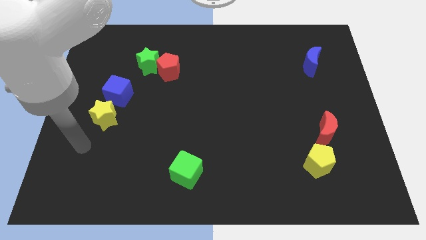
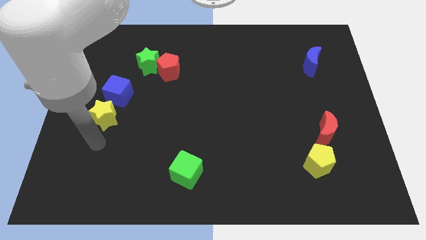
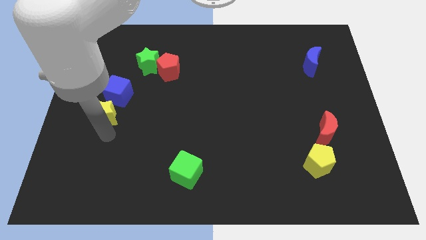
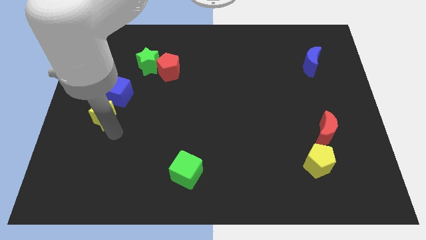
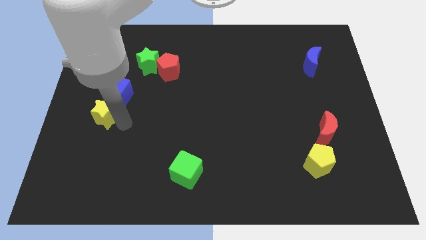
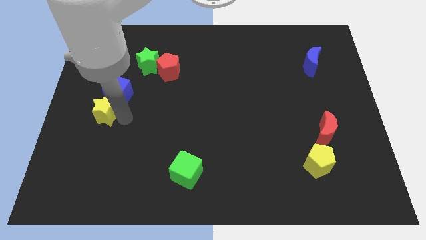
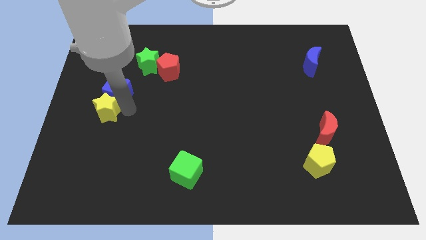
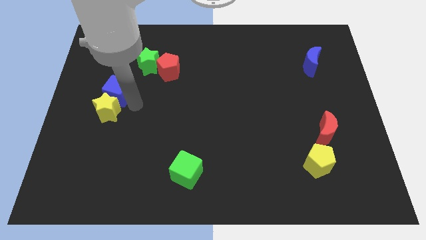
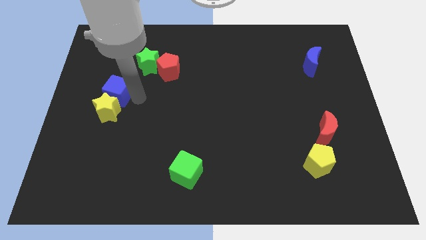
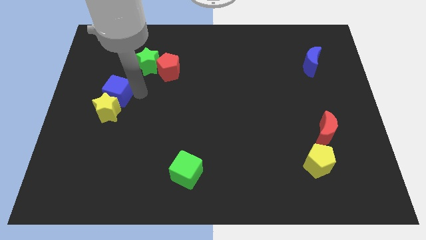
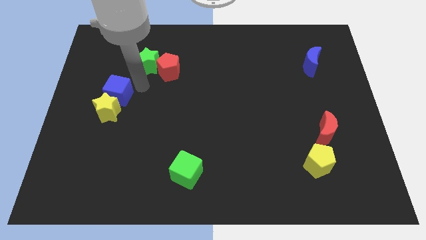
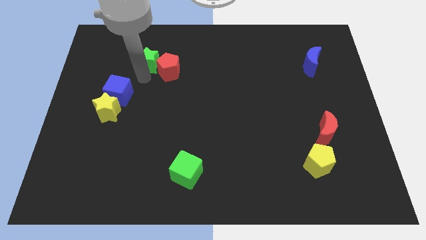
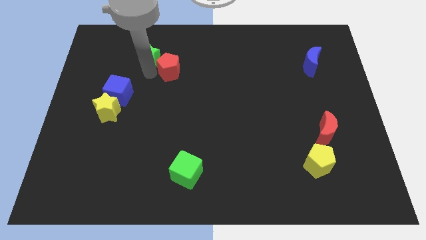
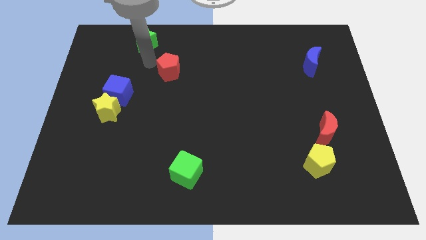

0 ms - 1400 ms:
move the red pentagon away from the green star

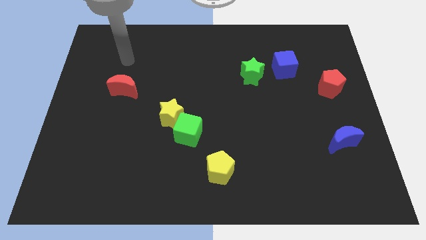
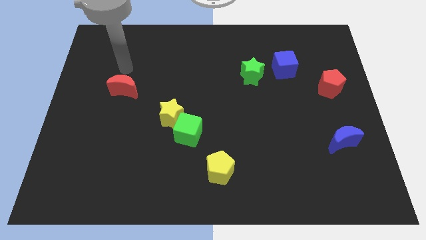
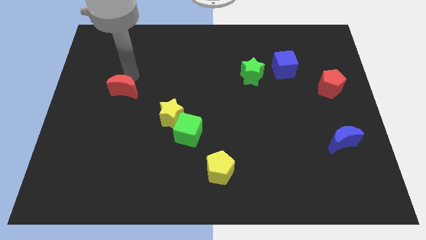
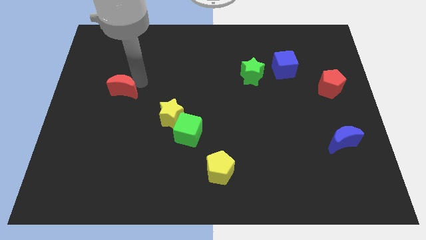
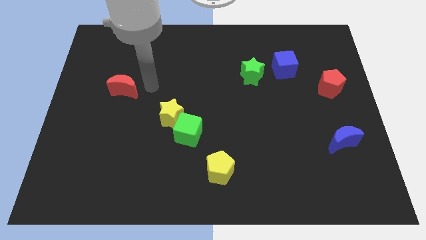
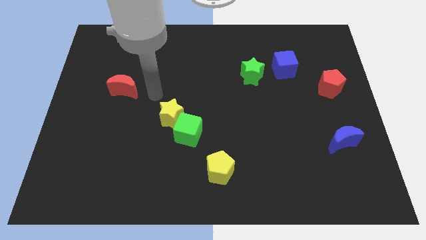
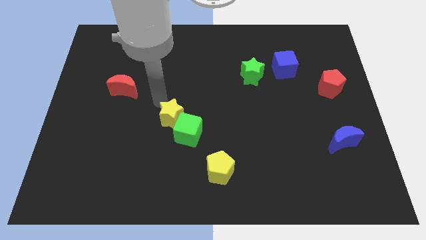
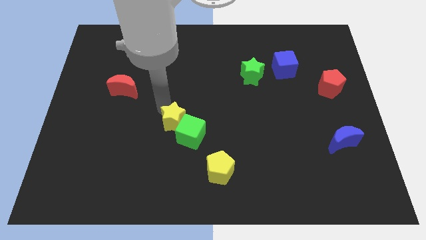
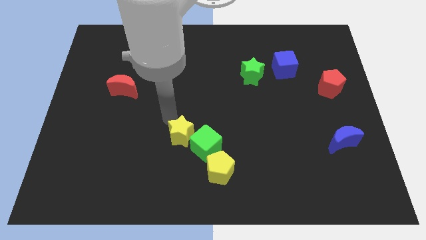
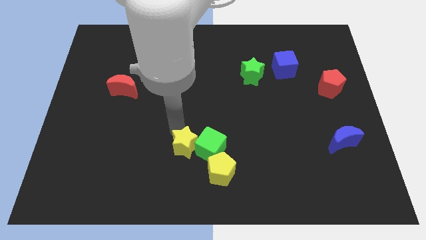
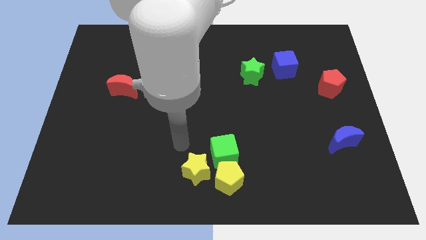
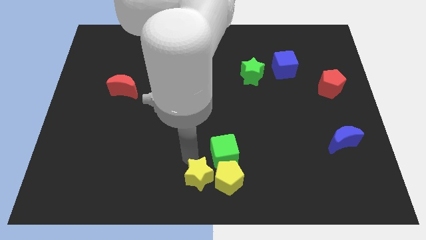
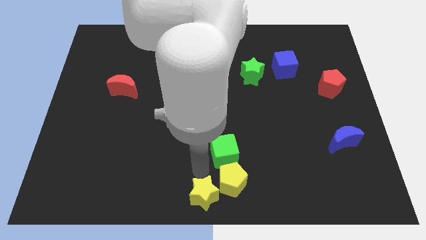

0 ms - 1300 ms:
move the green cube away from the yellow star

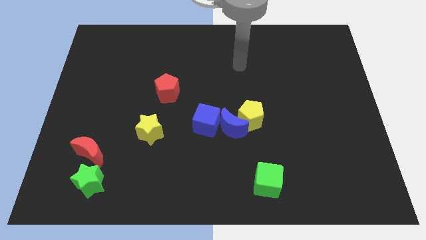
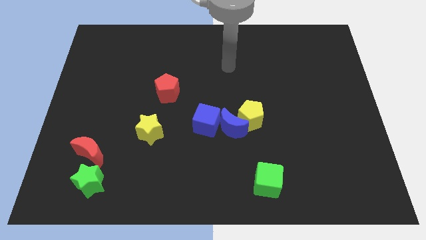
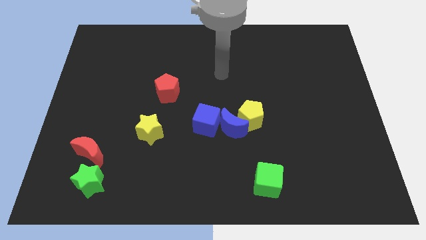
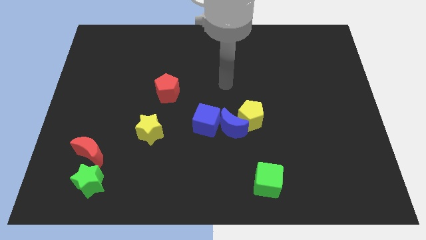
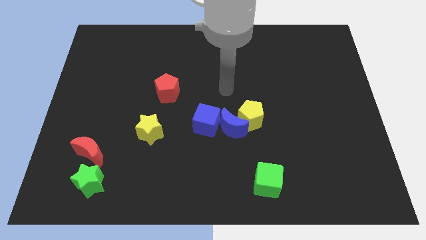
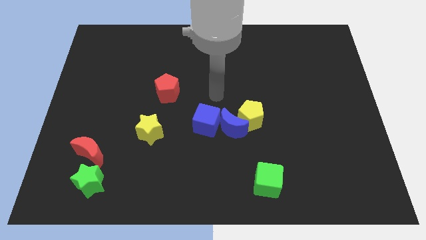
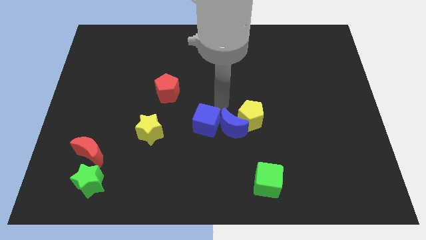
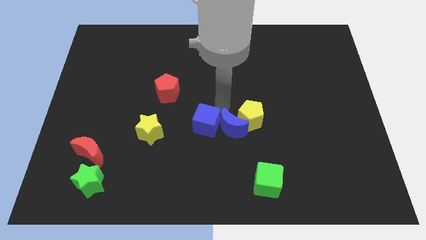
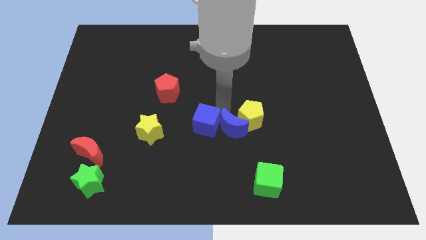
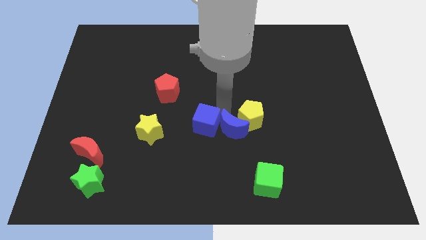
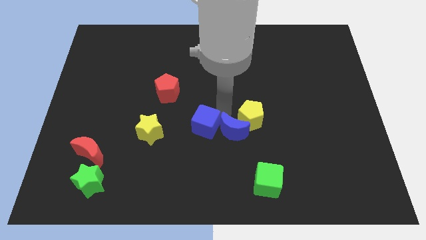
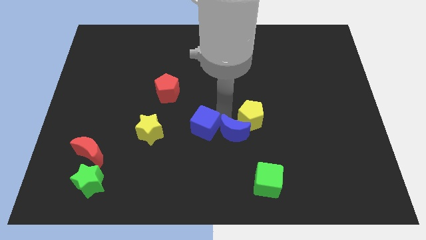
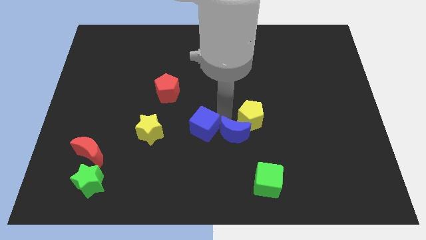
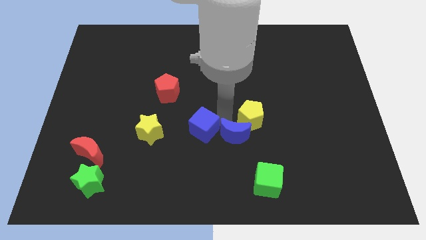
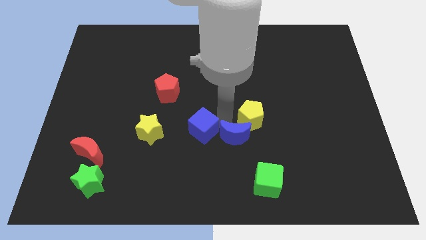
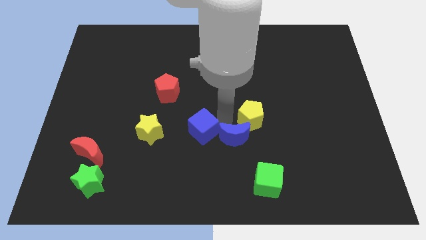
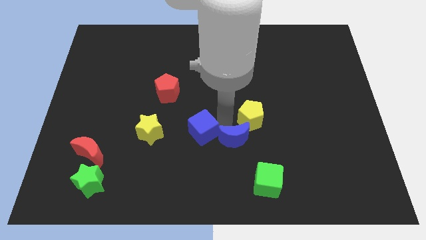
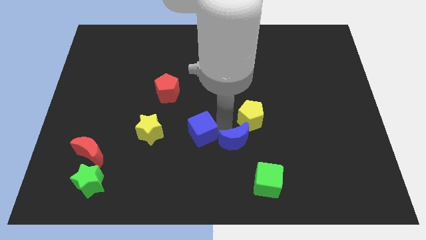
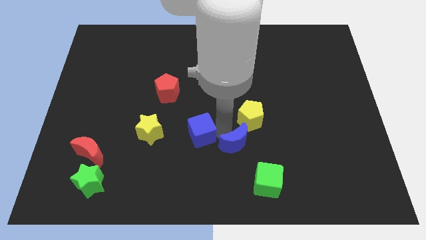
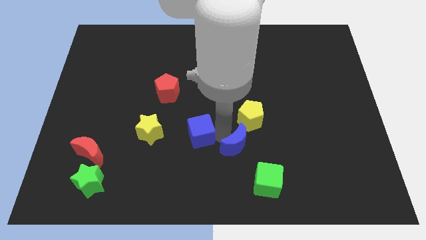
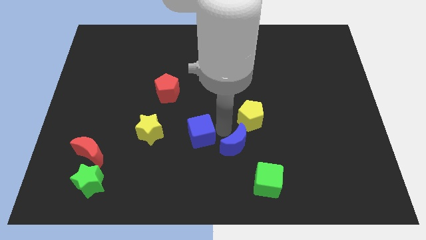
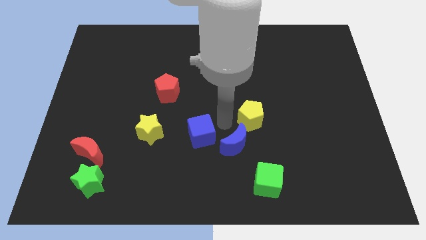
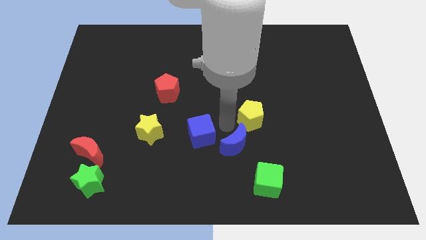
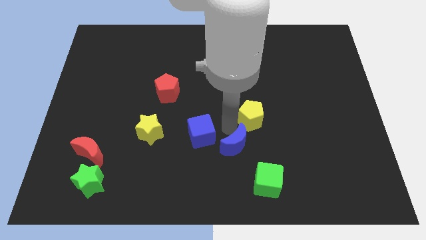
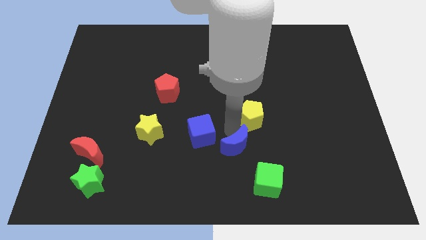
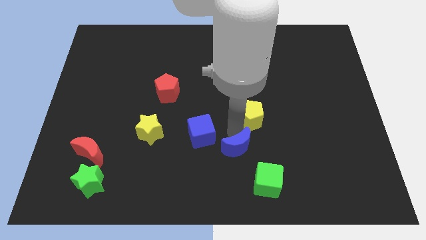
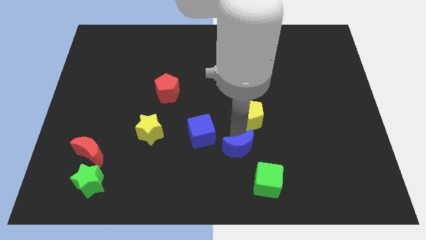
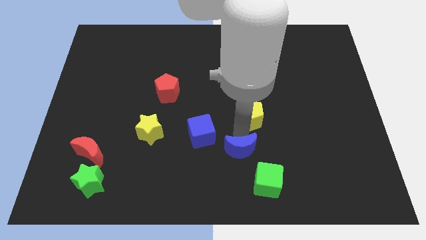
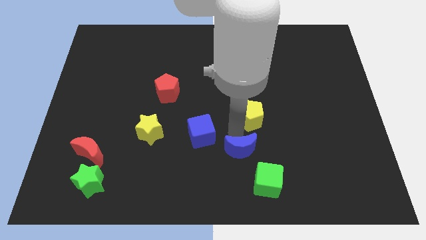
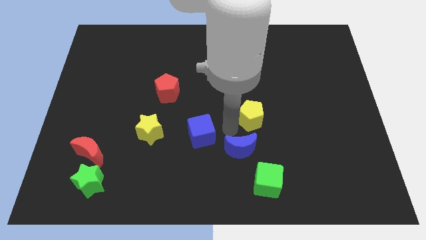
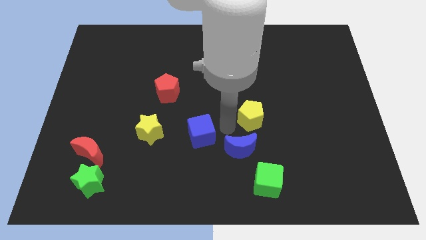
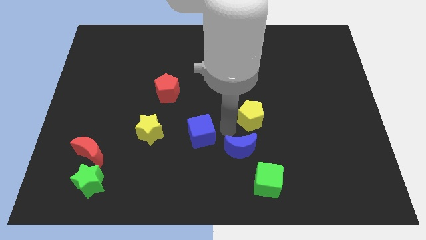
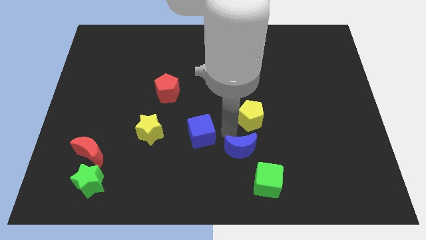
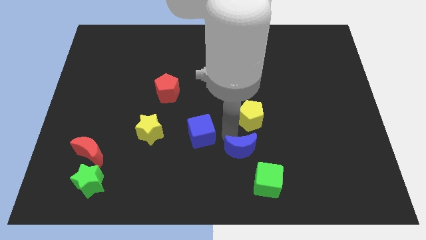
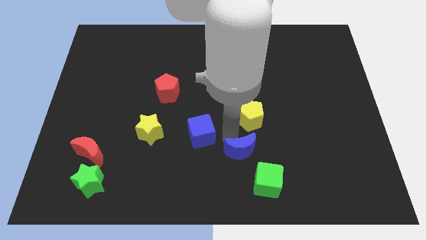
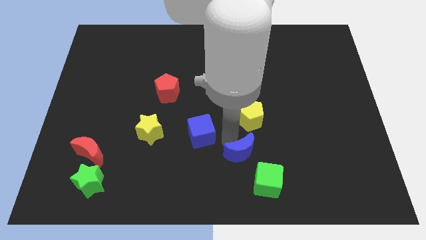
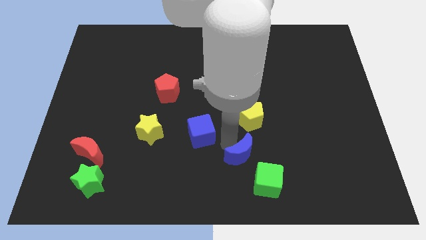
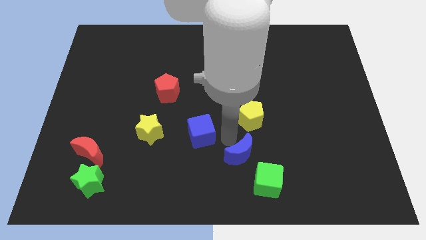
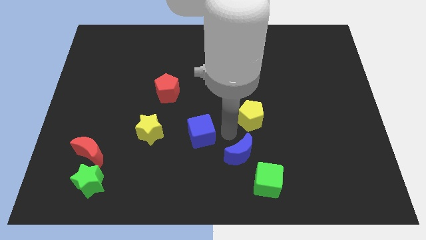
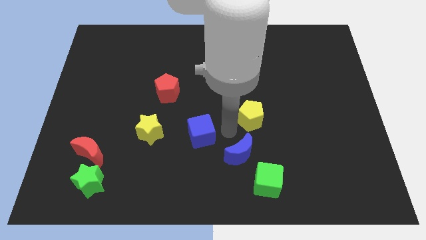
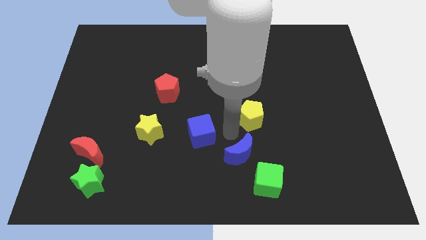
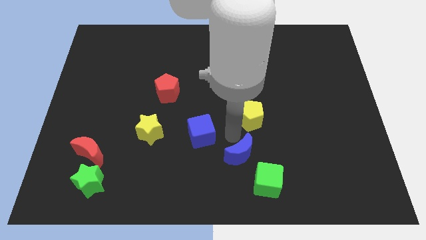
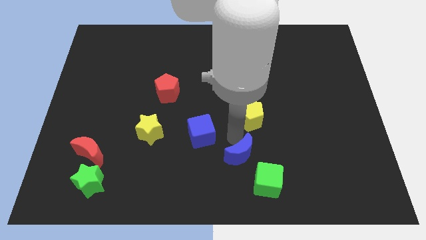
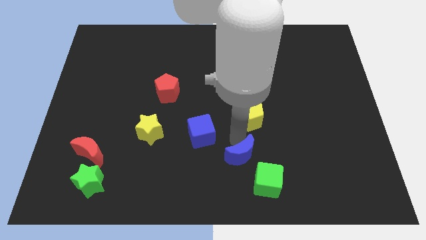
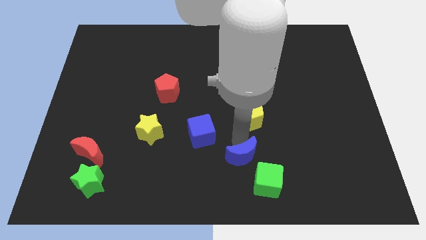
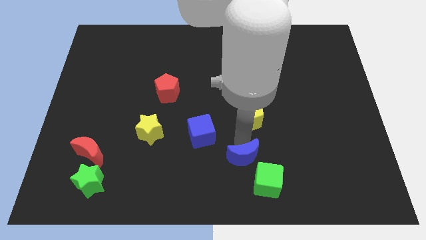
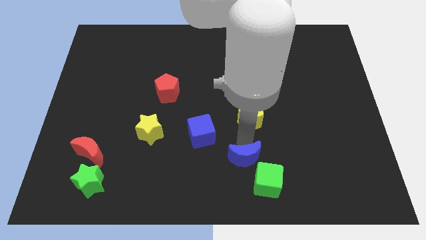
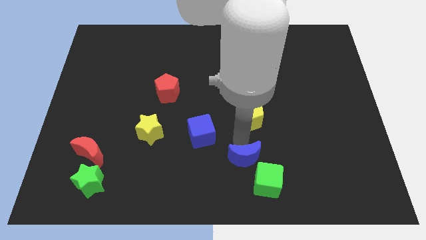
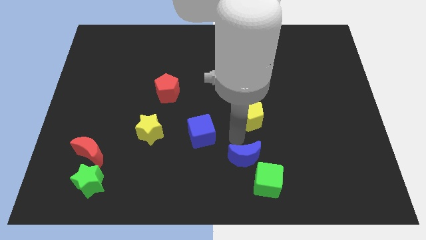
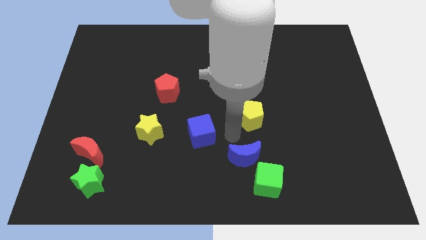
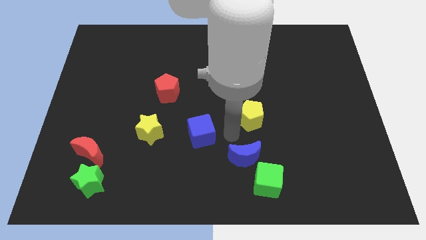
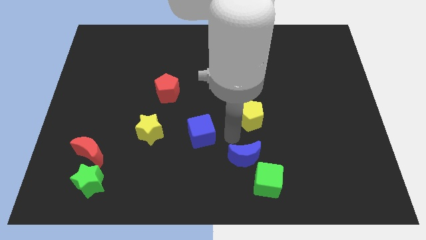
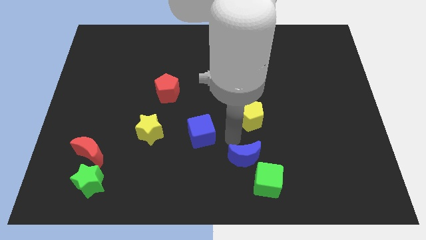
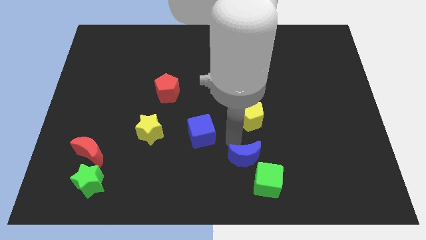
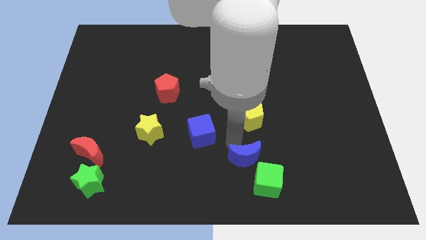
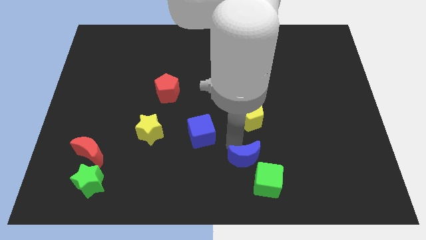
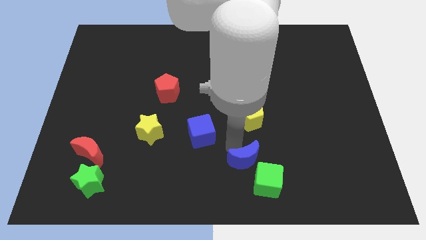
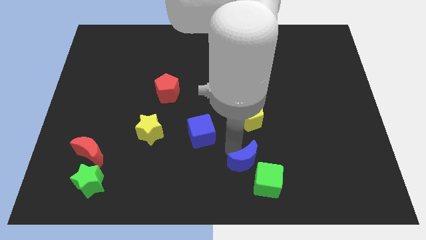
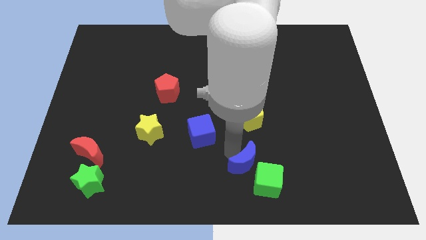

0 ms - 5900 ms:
pull the blue moon apart from the yellow pentagon and blue cube

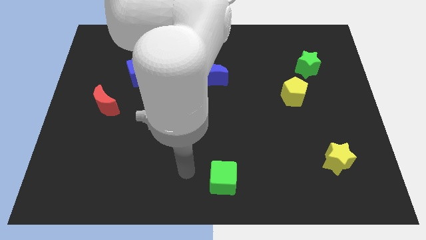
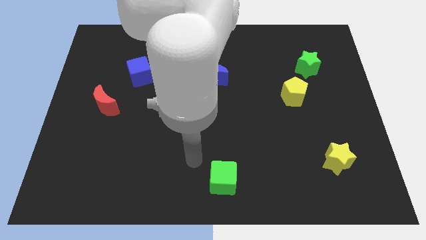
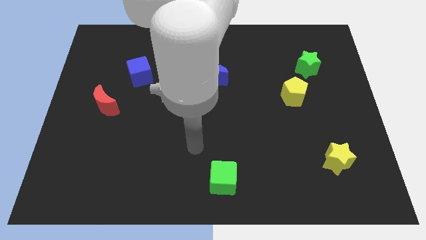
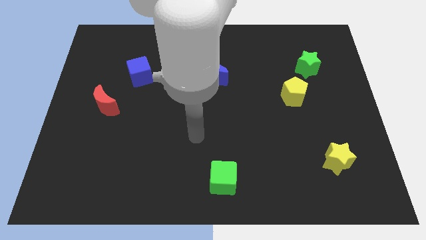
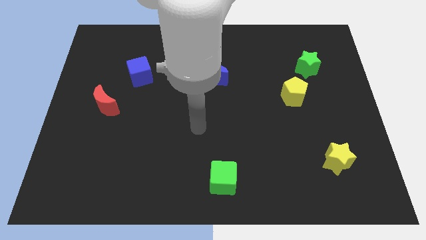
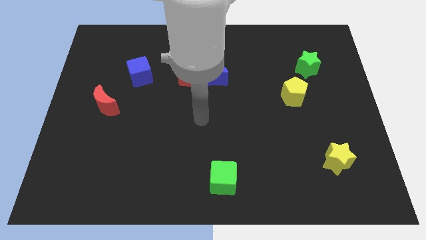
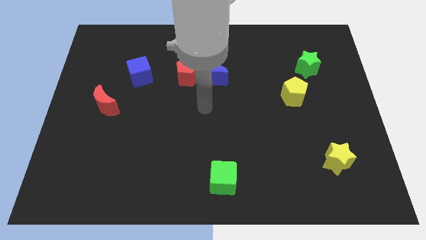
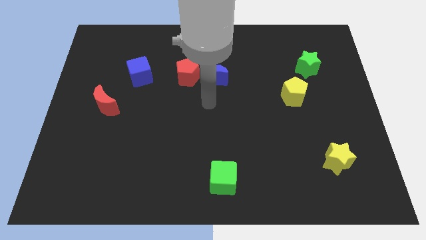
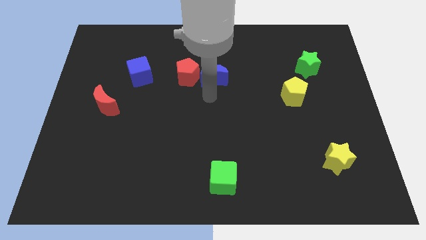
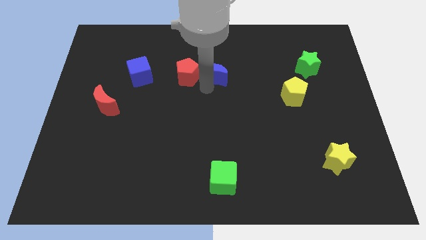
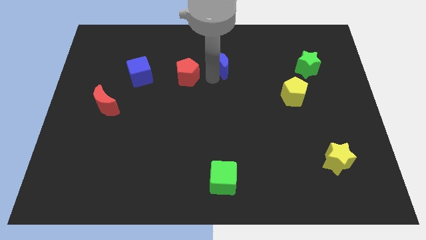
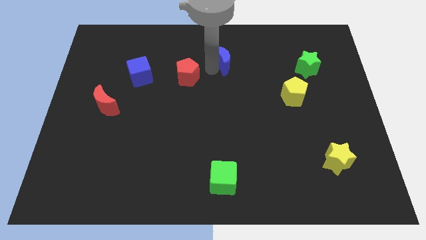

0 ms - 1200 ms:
separate the red pentagon from the blue moon
